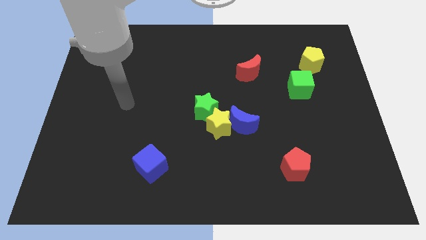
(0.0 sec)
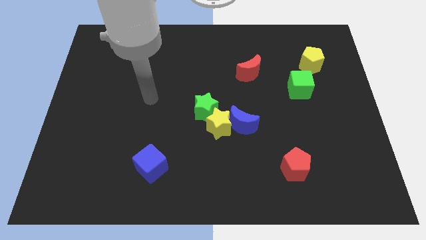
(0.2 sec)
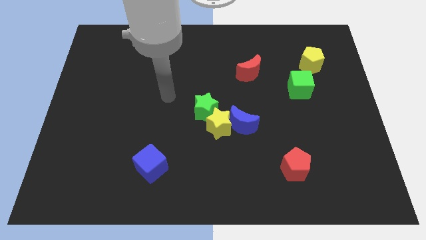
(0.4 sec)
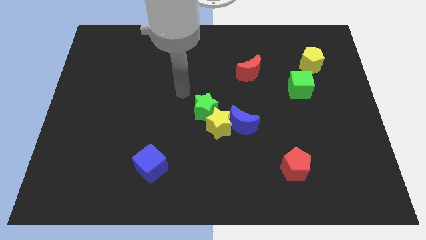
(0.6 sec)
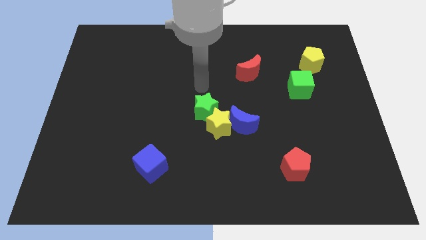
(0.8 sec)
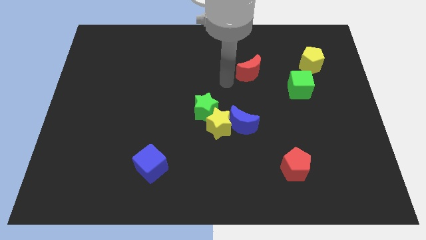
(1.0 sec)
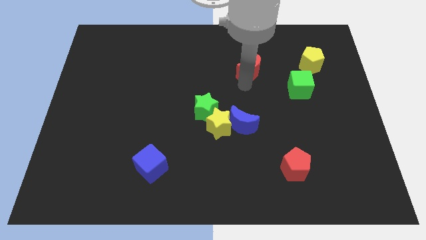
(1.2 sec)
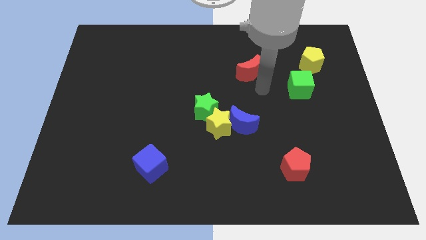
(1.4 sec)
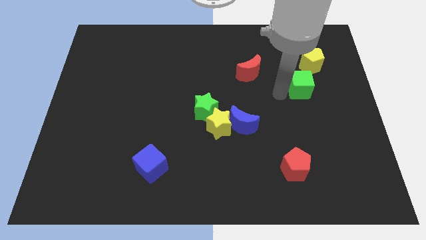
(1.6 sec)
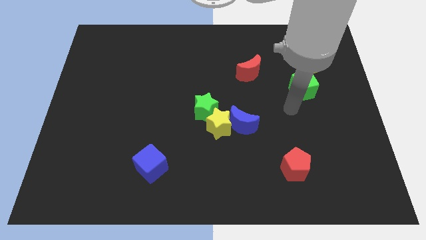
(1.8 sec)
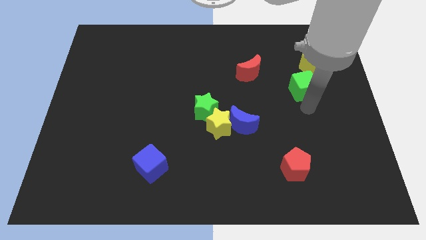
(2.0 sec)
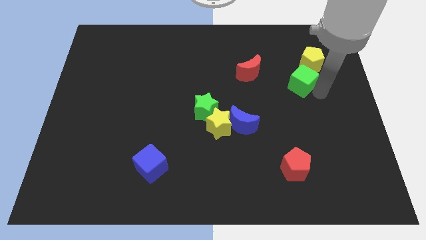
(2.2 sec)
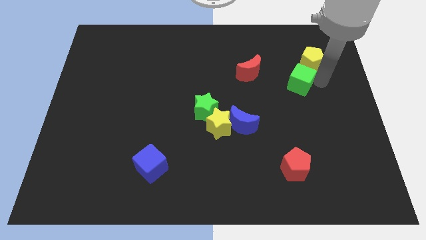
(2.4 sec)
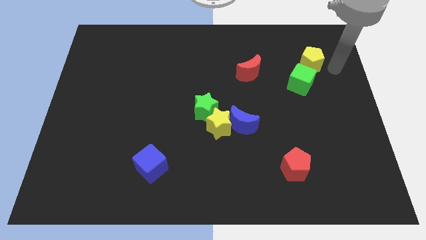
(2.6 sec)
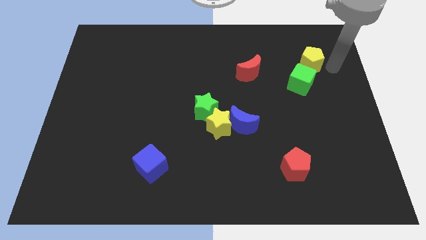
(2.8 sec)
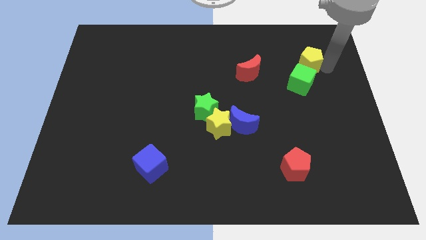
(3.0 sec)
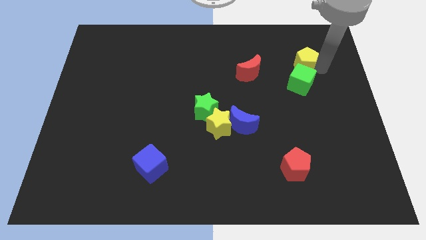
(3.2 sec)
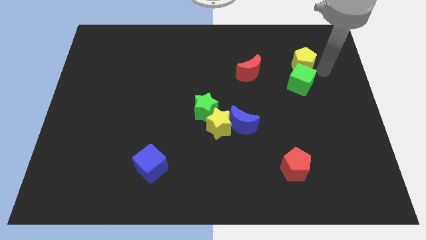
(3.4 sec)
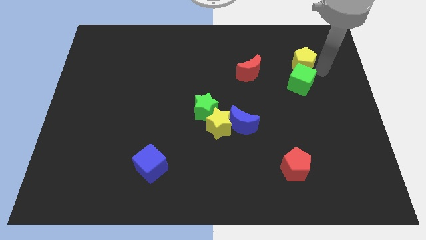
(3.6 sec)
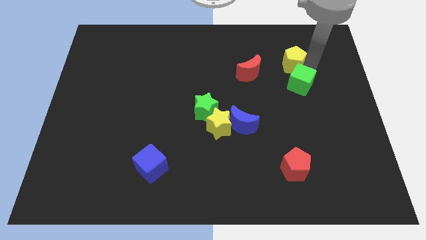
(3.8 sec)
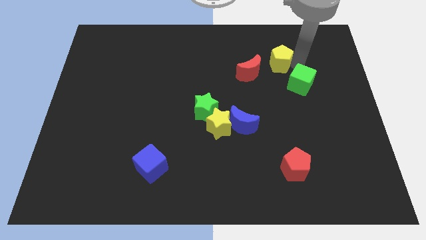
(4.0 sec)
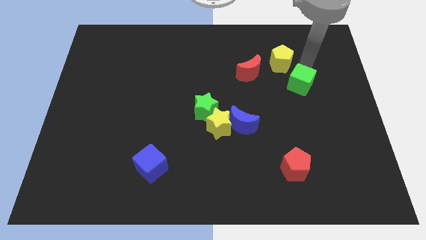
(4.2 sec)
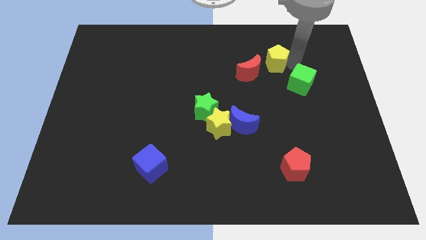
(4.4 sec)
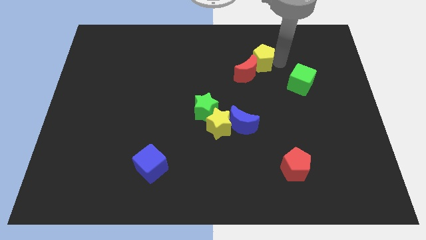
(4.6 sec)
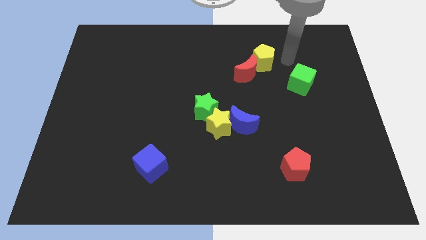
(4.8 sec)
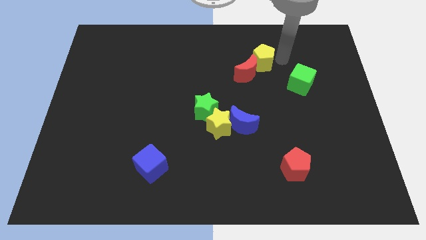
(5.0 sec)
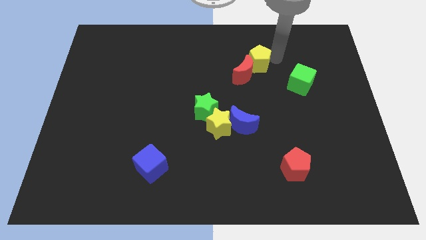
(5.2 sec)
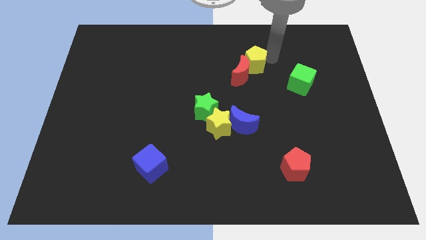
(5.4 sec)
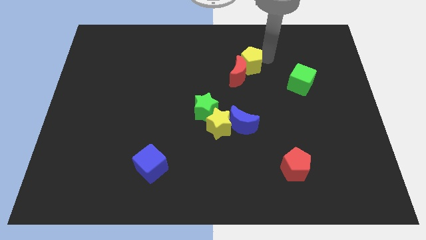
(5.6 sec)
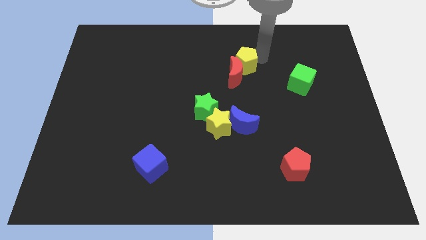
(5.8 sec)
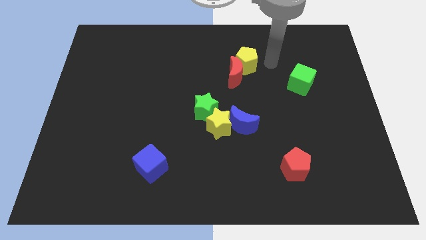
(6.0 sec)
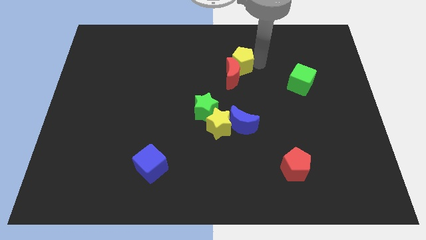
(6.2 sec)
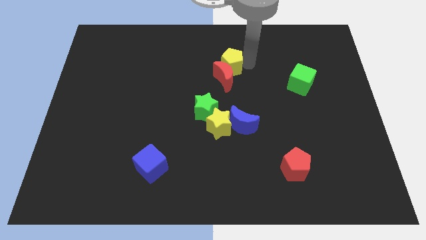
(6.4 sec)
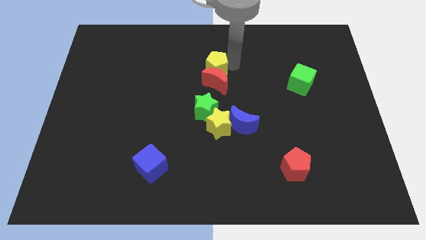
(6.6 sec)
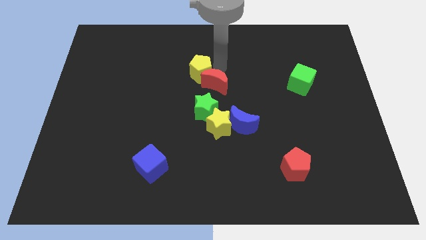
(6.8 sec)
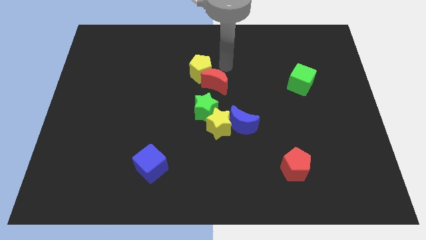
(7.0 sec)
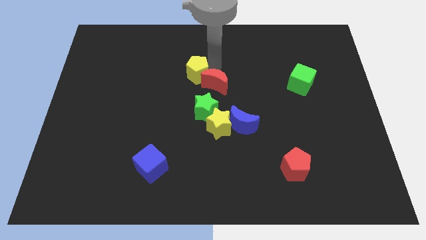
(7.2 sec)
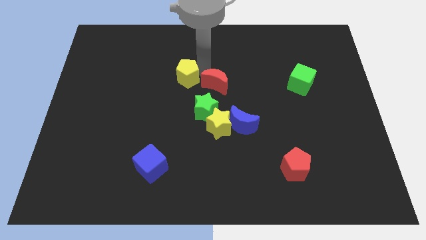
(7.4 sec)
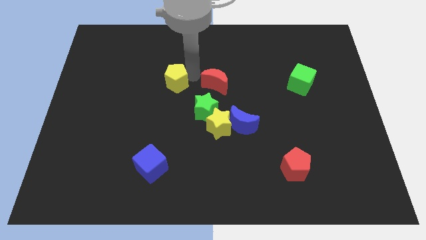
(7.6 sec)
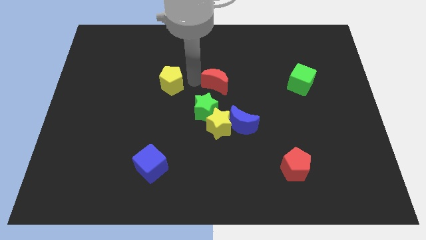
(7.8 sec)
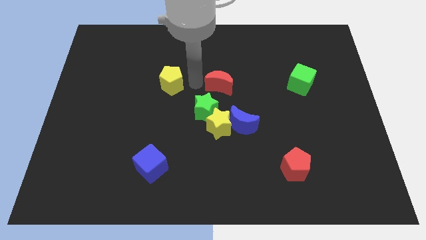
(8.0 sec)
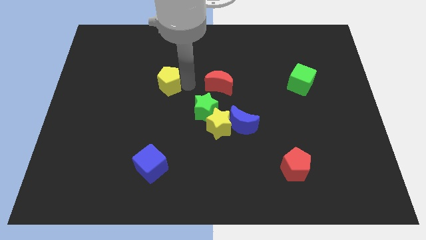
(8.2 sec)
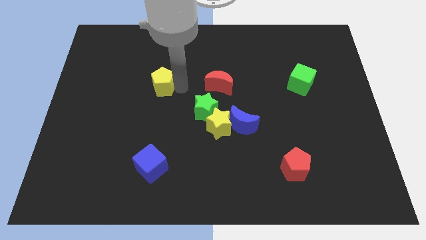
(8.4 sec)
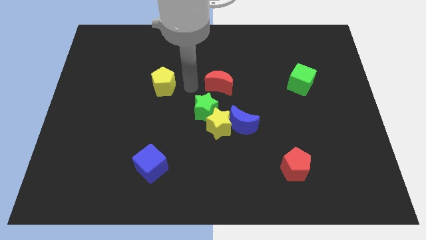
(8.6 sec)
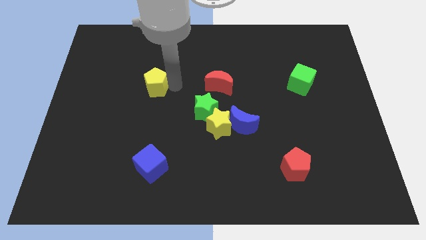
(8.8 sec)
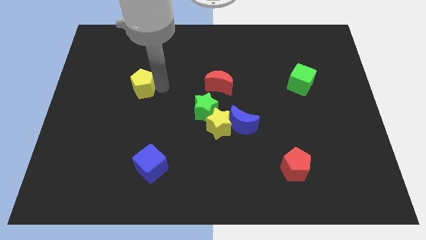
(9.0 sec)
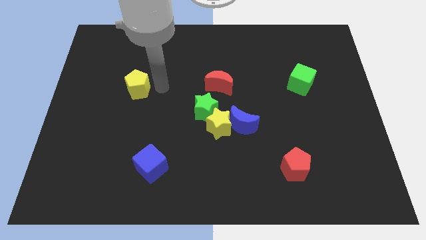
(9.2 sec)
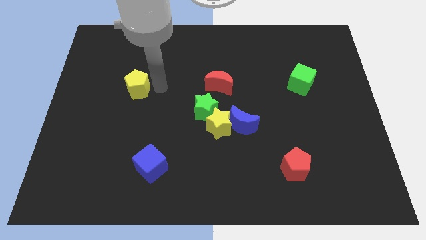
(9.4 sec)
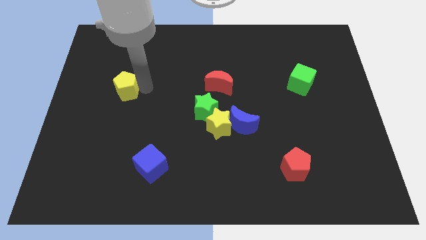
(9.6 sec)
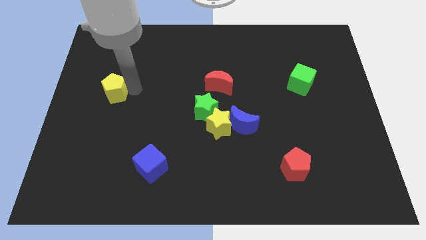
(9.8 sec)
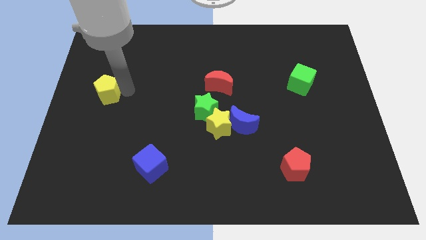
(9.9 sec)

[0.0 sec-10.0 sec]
slide the yellow pentagon to the left side of the board

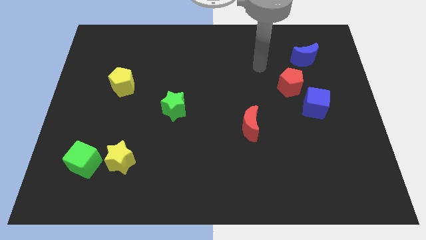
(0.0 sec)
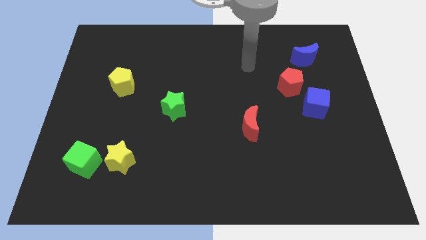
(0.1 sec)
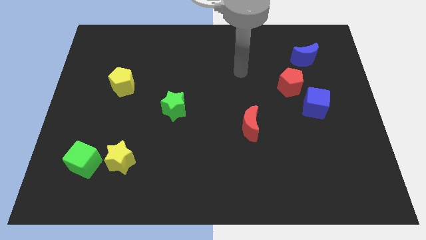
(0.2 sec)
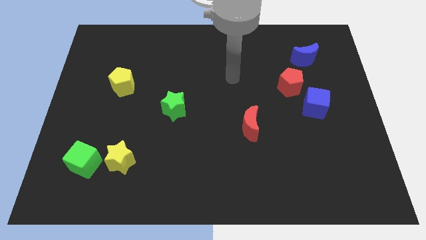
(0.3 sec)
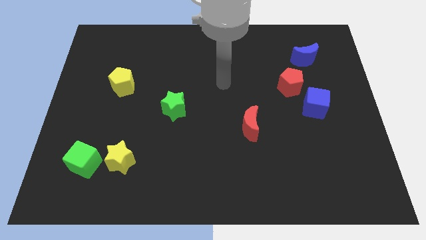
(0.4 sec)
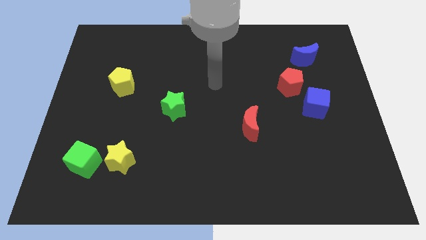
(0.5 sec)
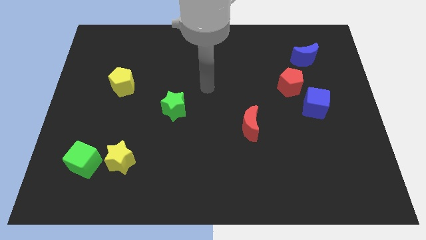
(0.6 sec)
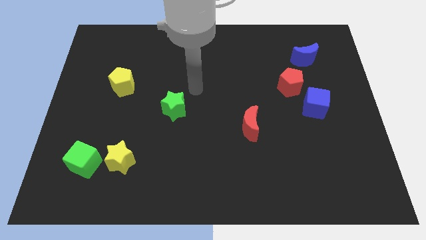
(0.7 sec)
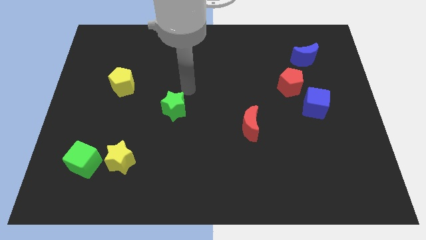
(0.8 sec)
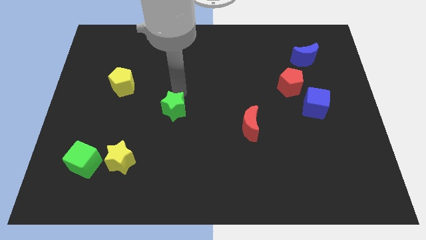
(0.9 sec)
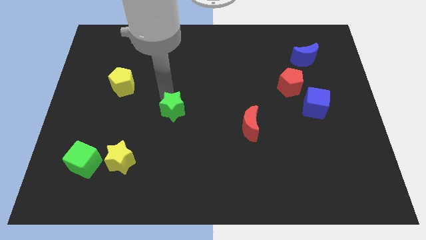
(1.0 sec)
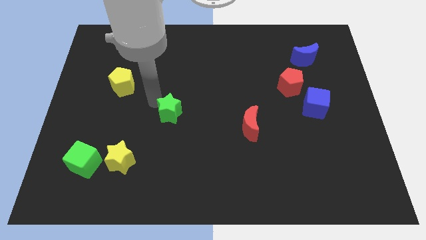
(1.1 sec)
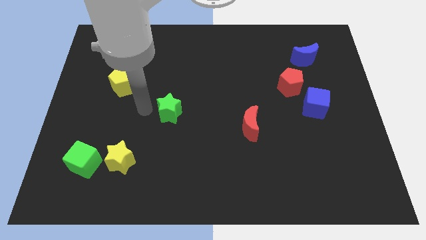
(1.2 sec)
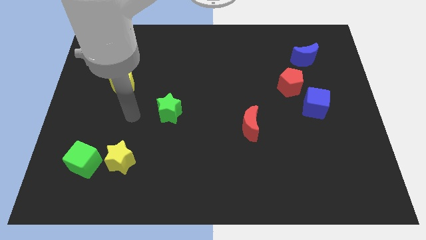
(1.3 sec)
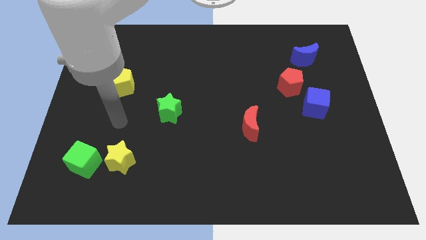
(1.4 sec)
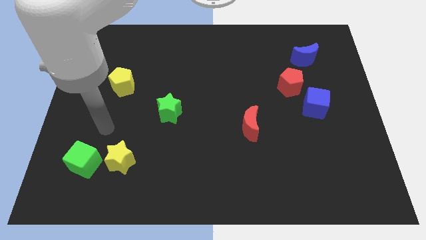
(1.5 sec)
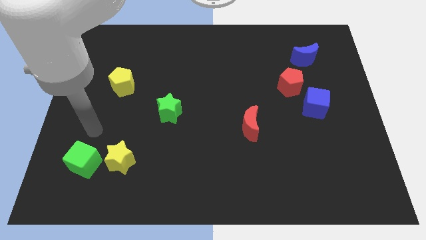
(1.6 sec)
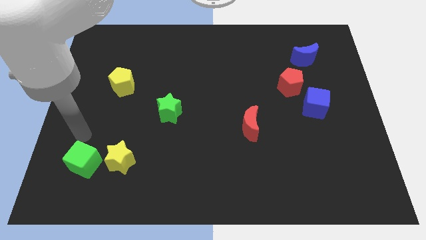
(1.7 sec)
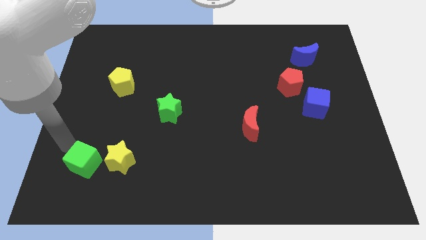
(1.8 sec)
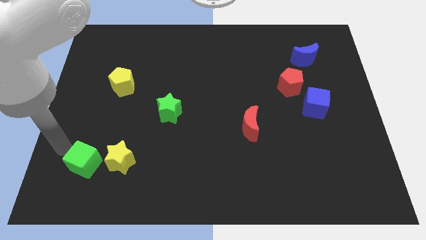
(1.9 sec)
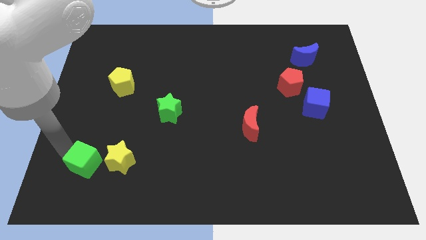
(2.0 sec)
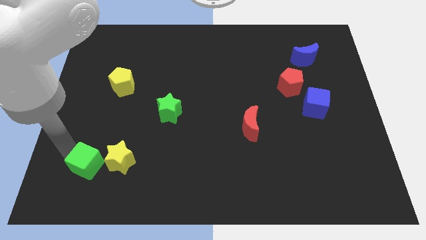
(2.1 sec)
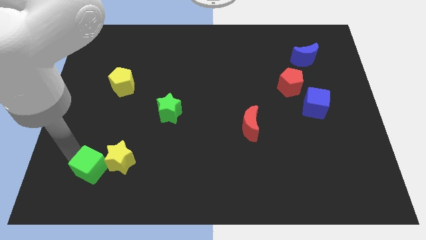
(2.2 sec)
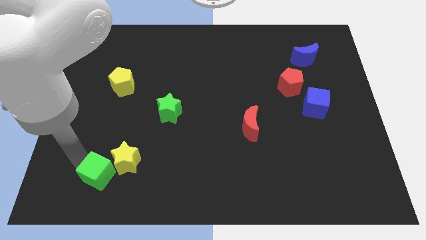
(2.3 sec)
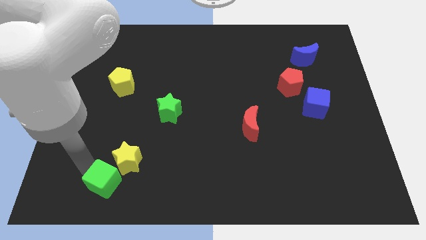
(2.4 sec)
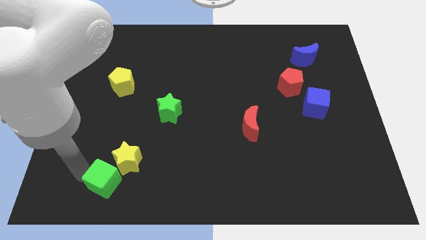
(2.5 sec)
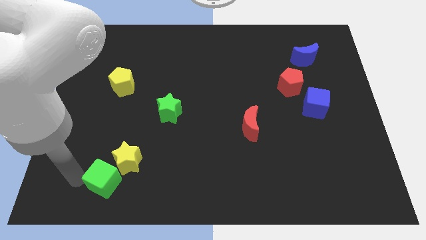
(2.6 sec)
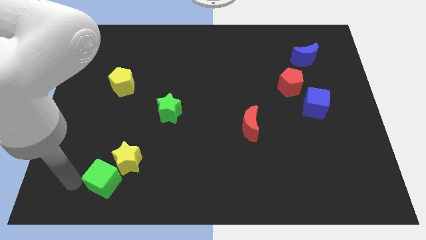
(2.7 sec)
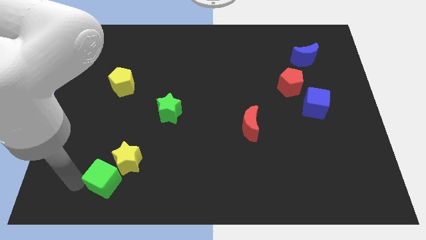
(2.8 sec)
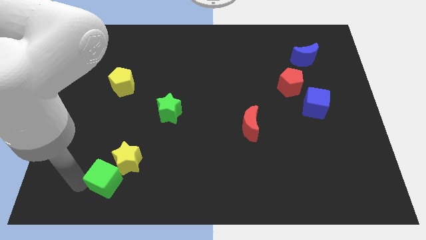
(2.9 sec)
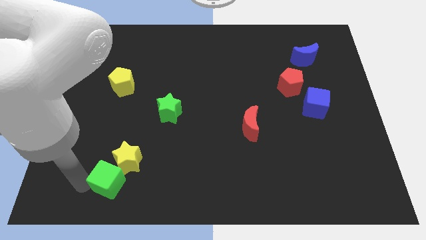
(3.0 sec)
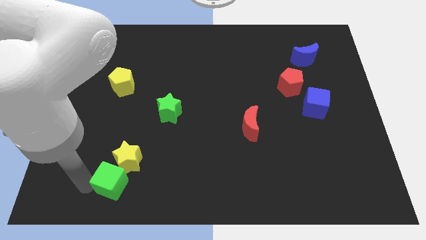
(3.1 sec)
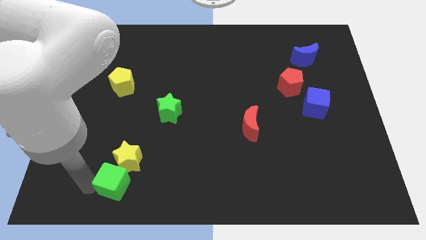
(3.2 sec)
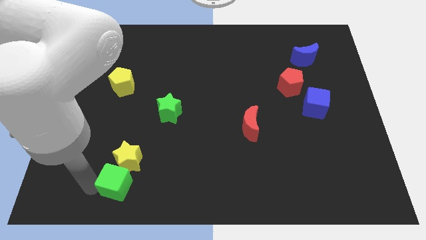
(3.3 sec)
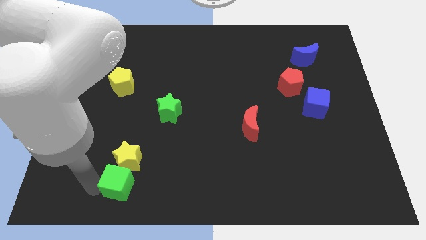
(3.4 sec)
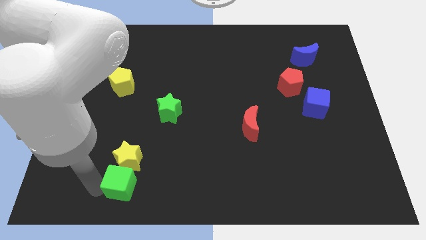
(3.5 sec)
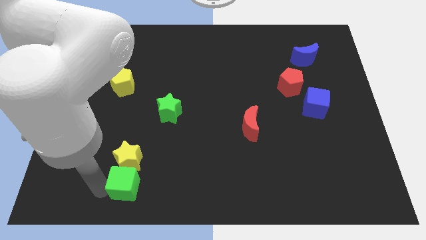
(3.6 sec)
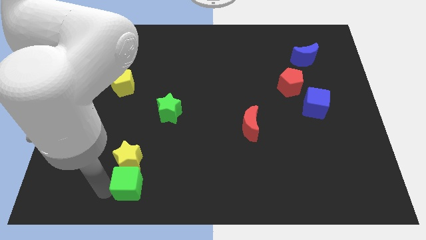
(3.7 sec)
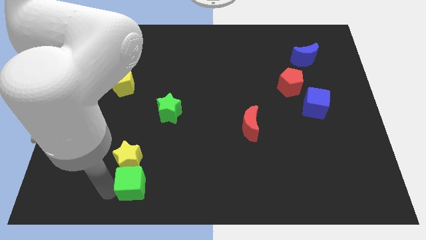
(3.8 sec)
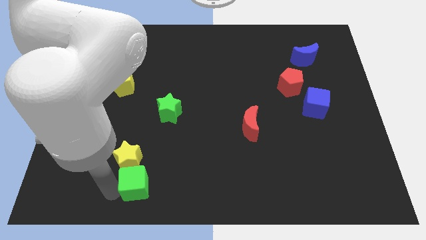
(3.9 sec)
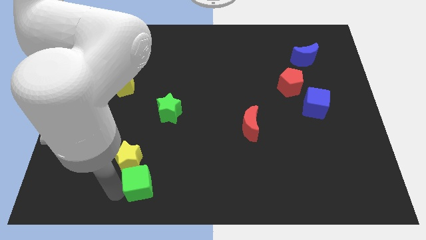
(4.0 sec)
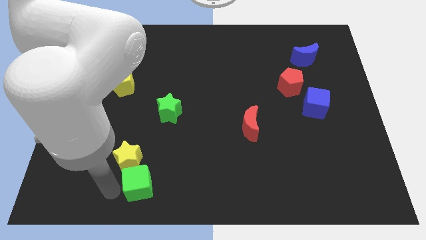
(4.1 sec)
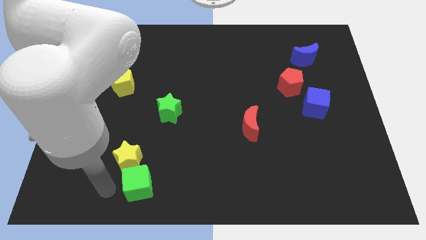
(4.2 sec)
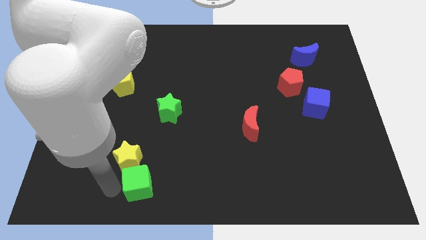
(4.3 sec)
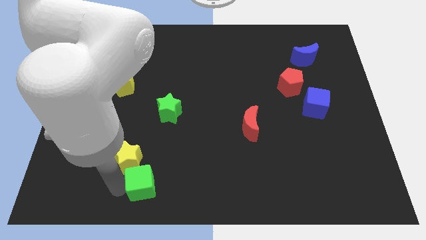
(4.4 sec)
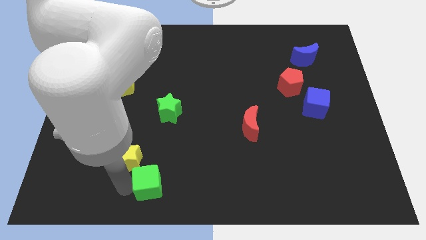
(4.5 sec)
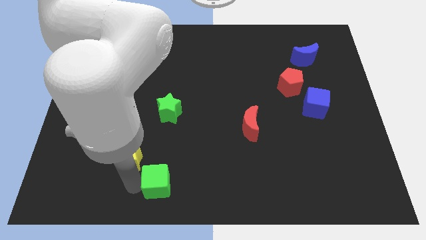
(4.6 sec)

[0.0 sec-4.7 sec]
push the green cube to the bottom side
